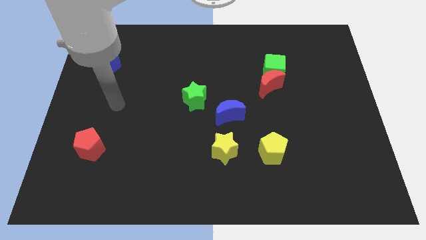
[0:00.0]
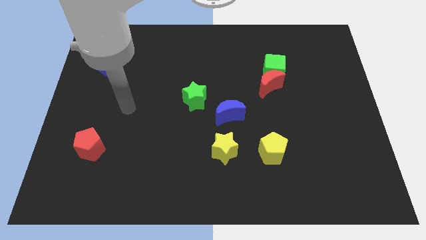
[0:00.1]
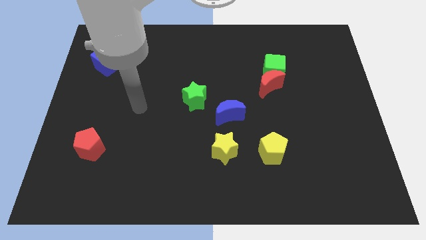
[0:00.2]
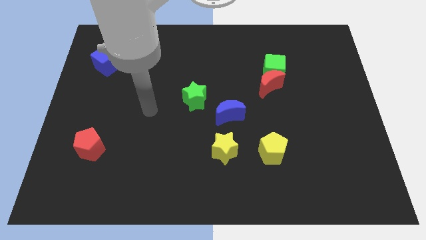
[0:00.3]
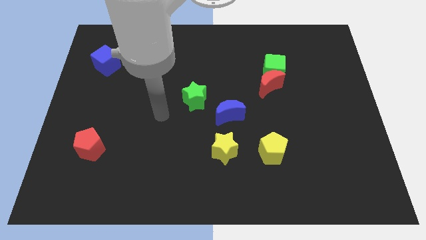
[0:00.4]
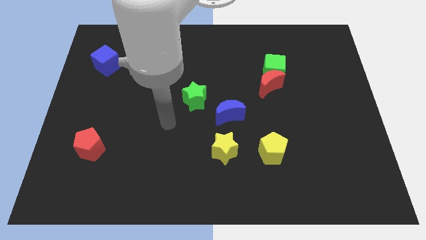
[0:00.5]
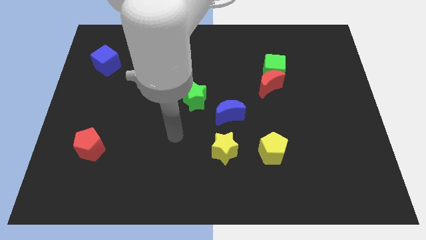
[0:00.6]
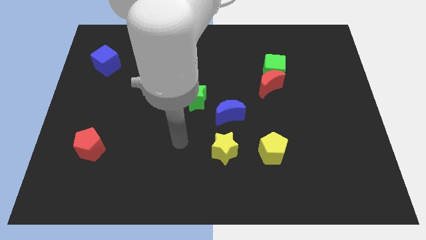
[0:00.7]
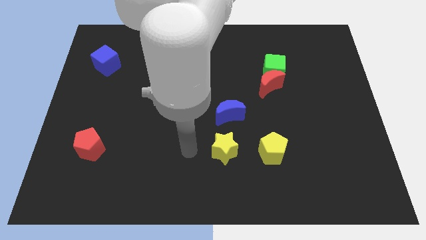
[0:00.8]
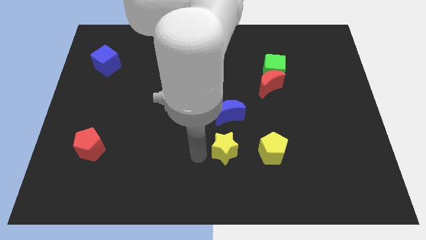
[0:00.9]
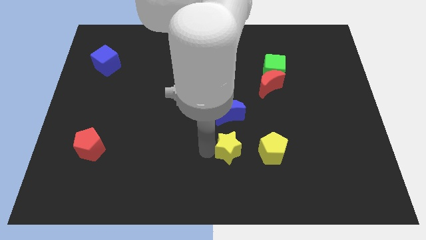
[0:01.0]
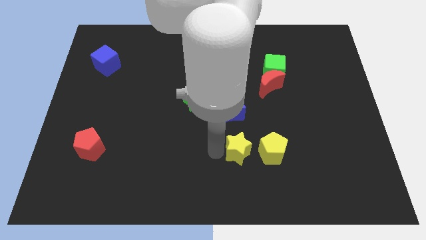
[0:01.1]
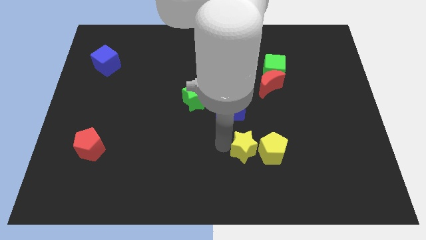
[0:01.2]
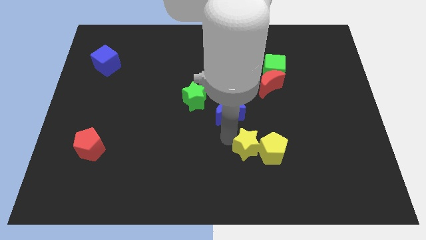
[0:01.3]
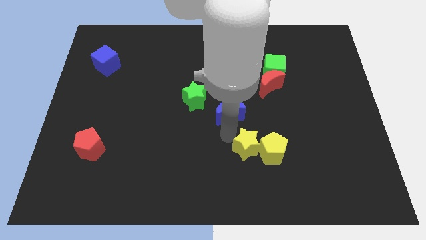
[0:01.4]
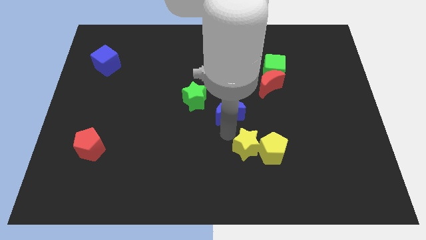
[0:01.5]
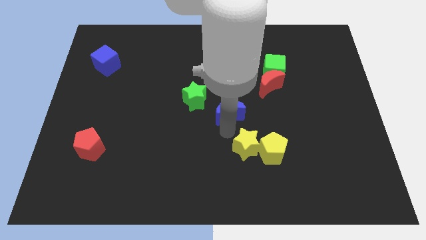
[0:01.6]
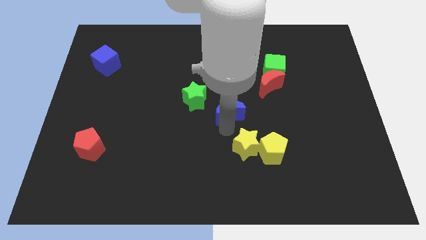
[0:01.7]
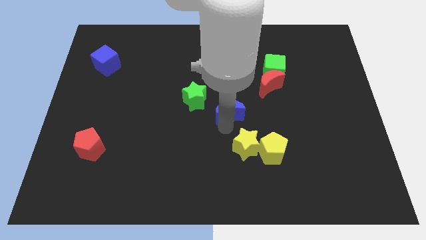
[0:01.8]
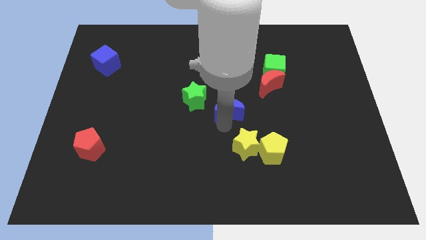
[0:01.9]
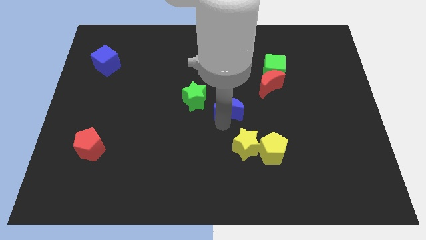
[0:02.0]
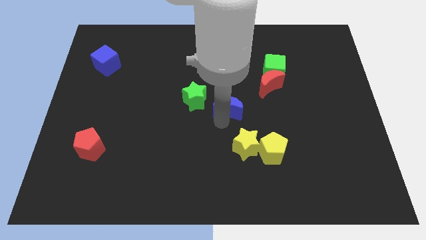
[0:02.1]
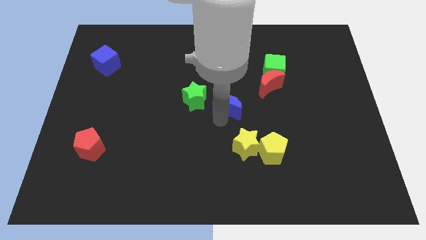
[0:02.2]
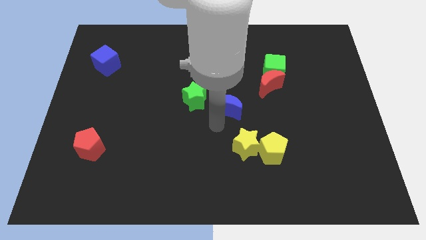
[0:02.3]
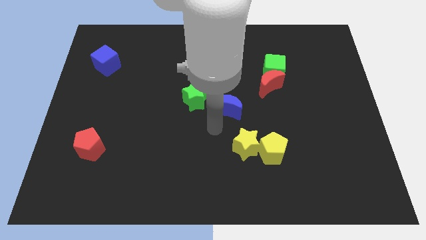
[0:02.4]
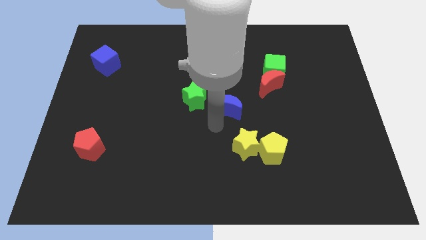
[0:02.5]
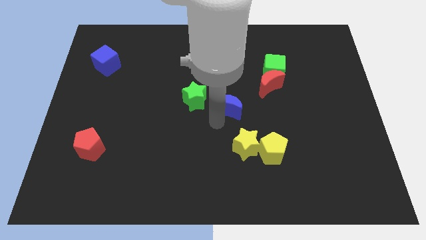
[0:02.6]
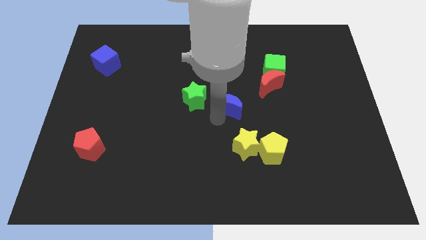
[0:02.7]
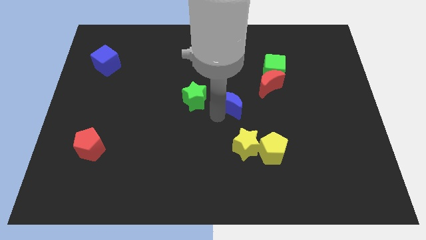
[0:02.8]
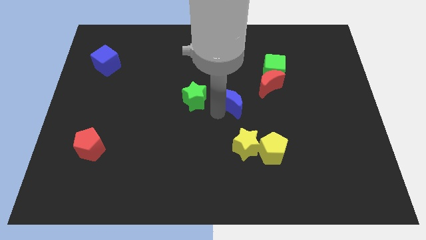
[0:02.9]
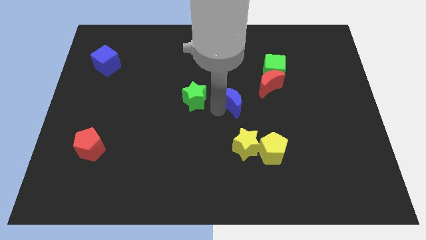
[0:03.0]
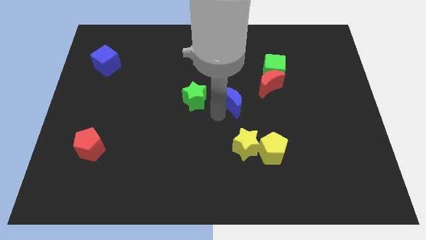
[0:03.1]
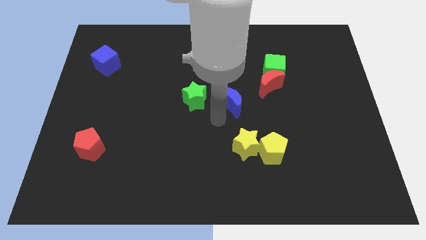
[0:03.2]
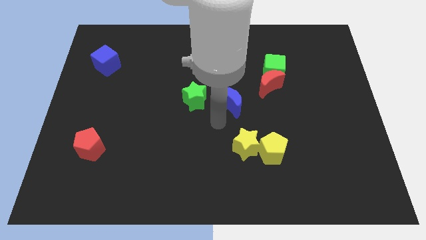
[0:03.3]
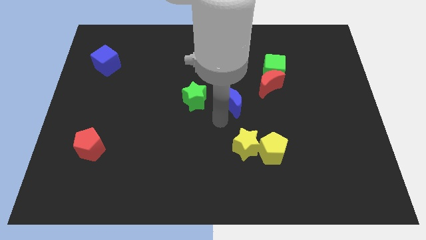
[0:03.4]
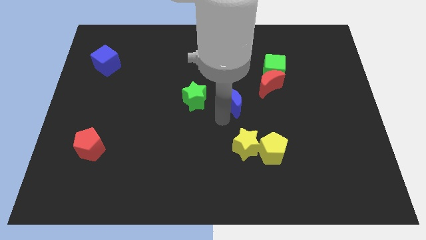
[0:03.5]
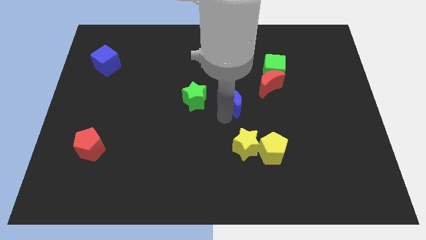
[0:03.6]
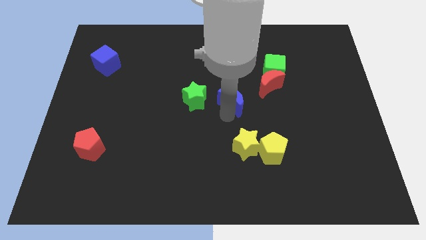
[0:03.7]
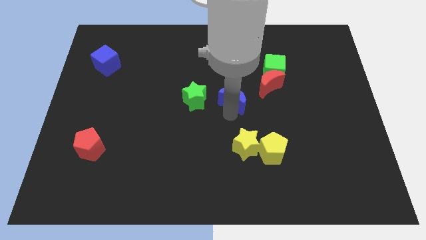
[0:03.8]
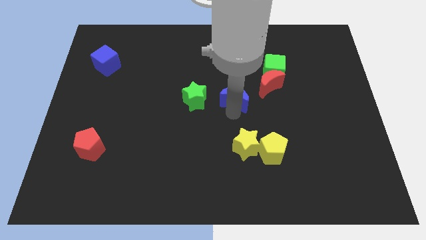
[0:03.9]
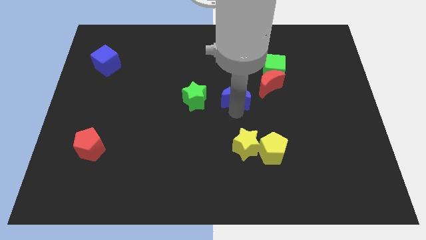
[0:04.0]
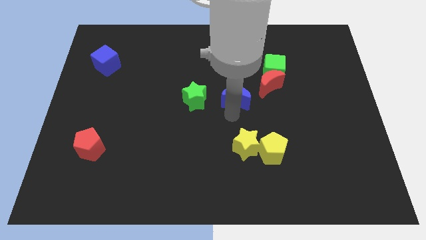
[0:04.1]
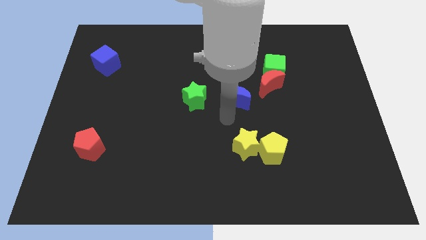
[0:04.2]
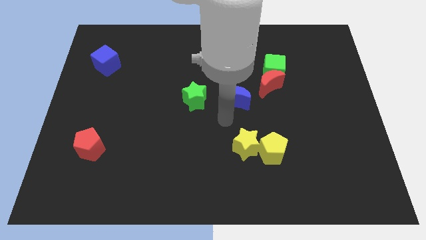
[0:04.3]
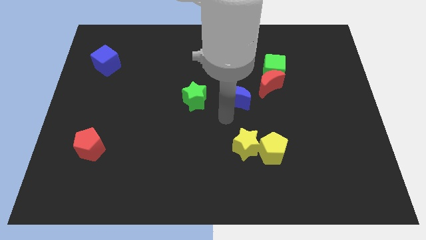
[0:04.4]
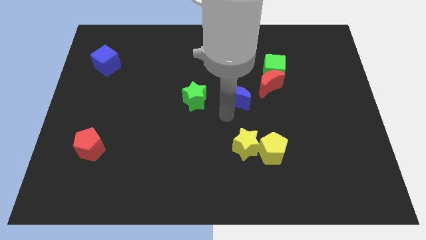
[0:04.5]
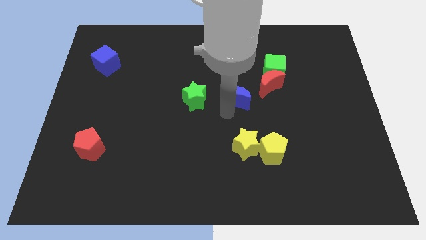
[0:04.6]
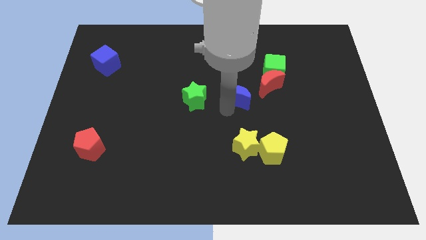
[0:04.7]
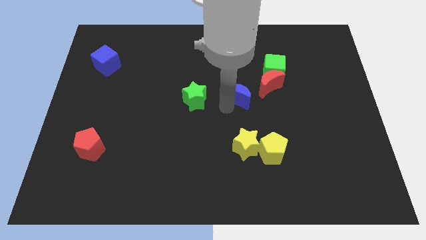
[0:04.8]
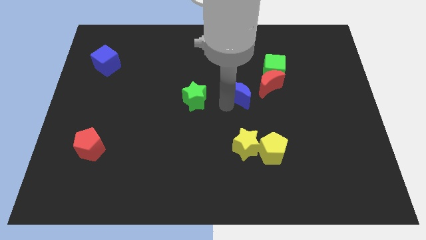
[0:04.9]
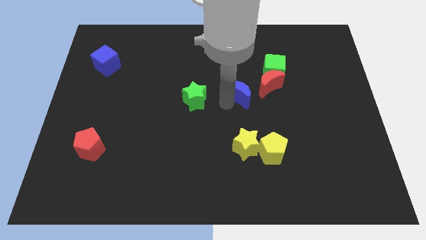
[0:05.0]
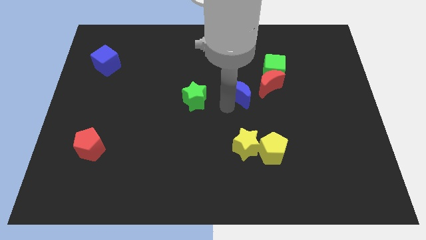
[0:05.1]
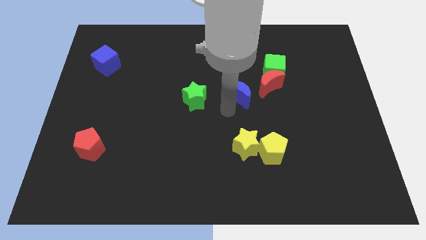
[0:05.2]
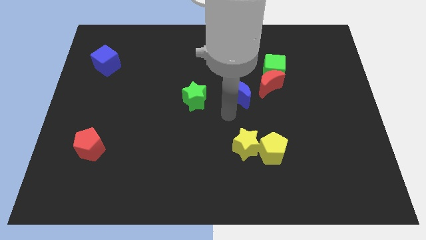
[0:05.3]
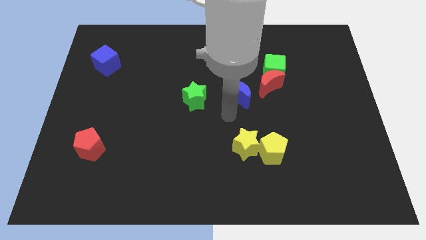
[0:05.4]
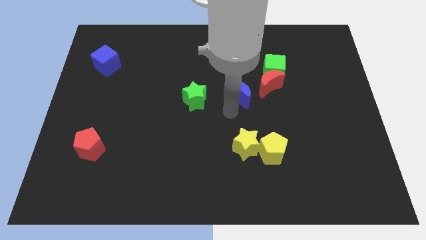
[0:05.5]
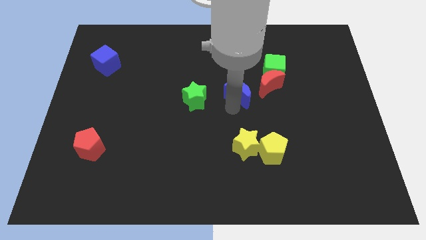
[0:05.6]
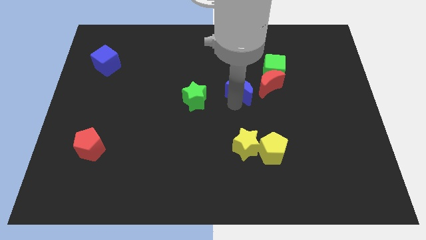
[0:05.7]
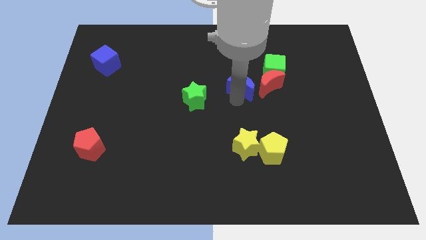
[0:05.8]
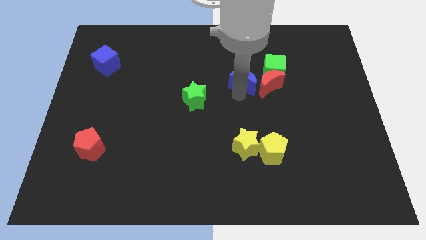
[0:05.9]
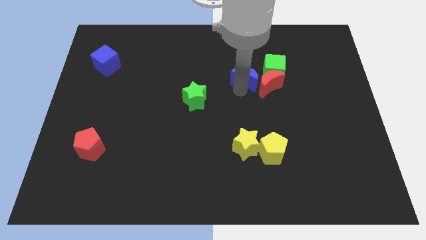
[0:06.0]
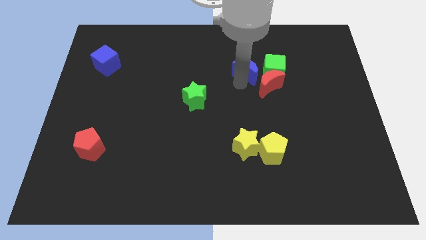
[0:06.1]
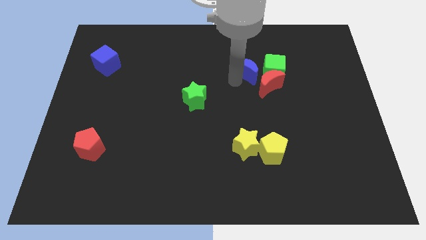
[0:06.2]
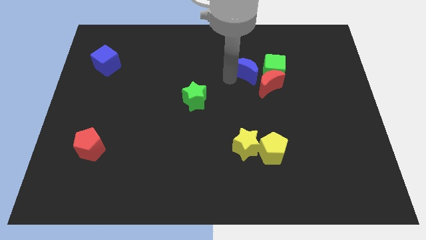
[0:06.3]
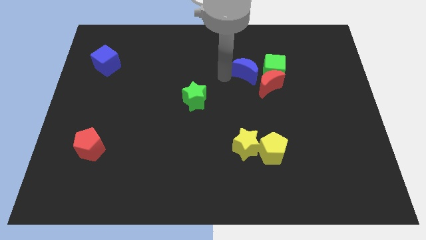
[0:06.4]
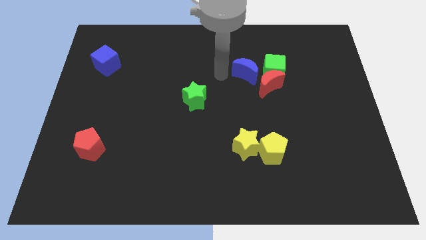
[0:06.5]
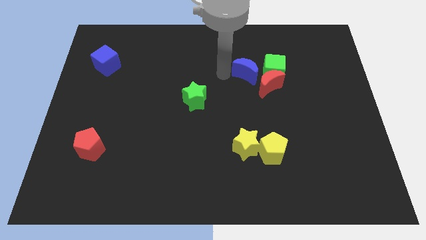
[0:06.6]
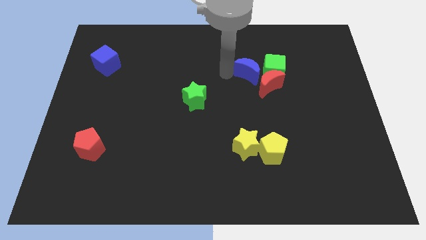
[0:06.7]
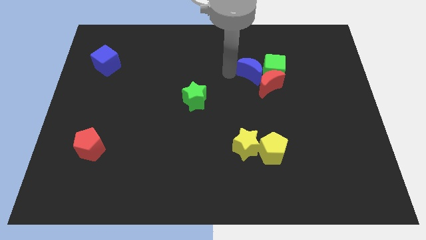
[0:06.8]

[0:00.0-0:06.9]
move the blue moon next to the green cube

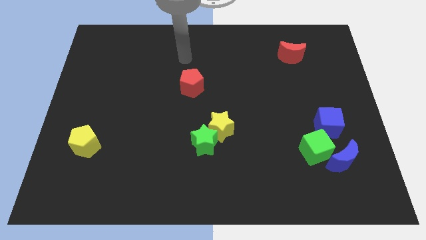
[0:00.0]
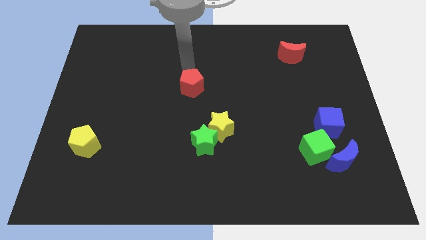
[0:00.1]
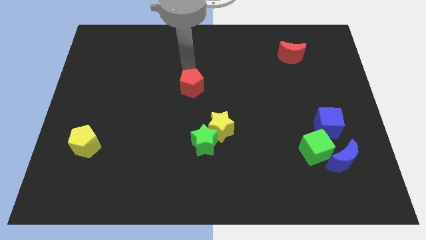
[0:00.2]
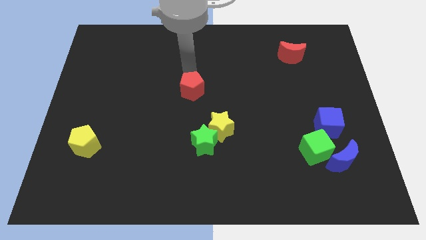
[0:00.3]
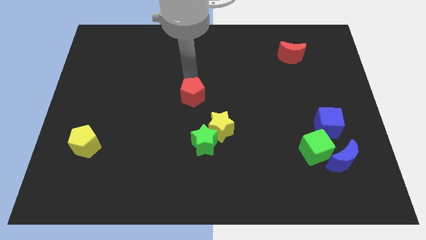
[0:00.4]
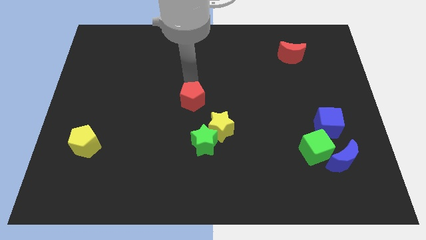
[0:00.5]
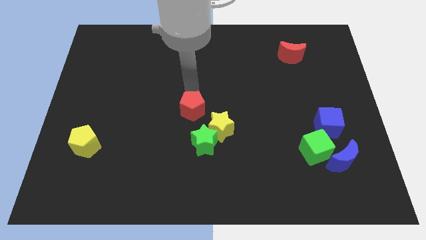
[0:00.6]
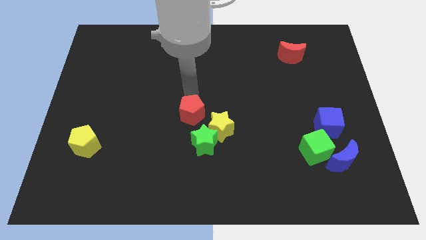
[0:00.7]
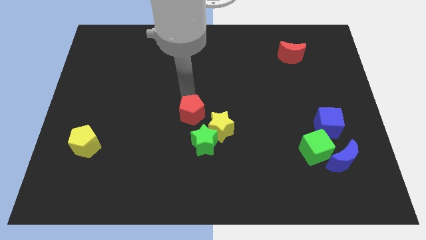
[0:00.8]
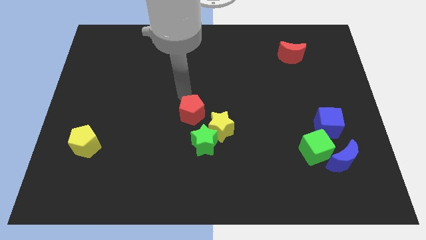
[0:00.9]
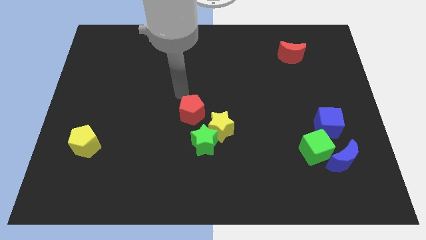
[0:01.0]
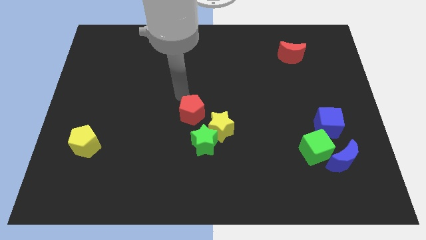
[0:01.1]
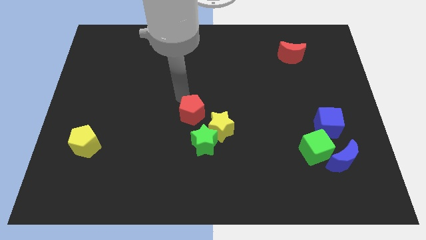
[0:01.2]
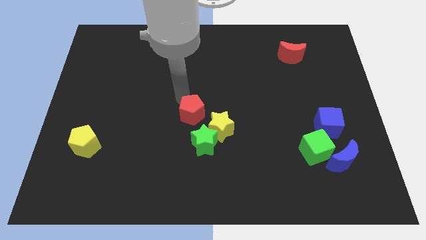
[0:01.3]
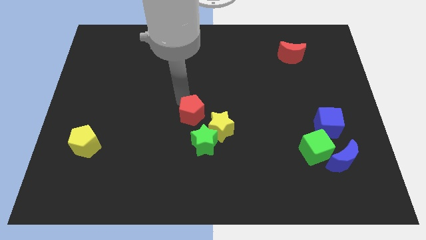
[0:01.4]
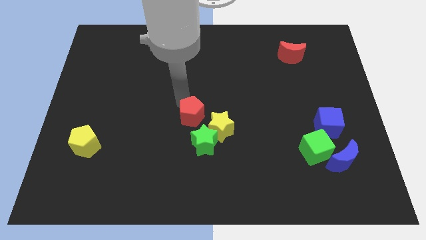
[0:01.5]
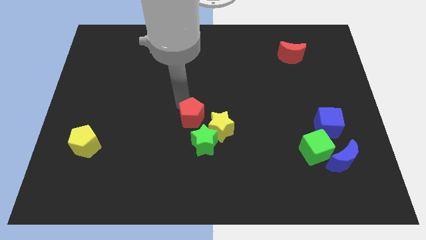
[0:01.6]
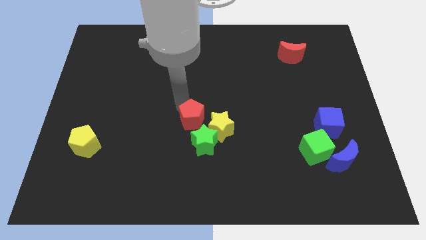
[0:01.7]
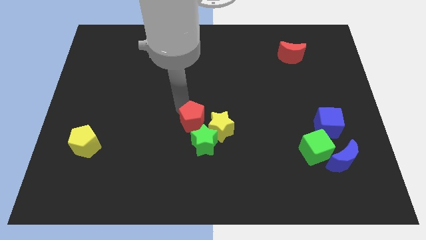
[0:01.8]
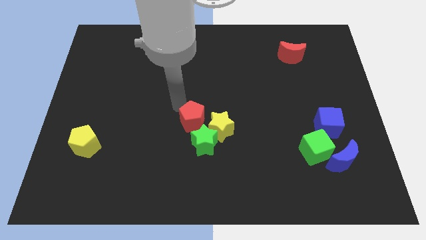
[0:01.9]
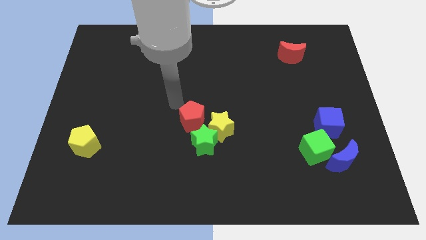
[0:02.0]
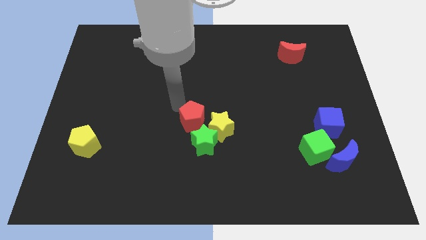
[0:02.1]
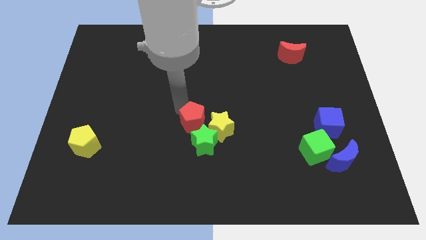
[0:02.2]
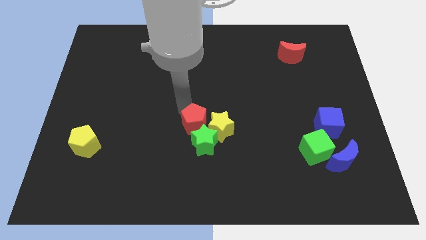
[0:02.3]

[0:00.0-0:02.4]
push the red pentagon close to the green star
